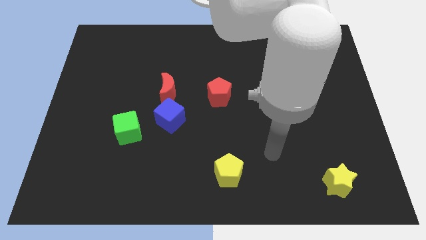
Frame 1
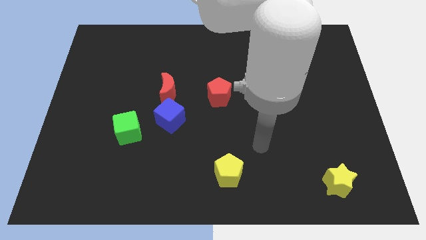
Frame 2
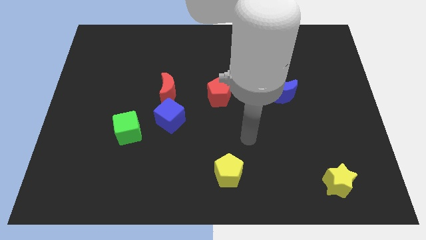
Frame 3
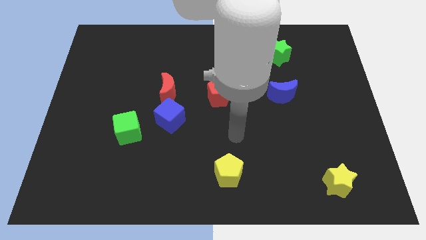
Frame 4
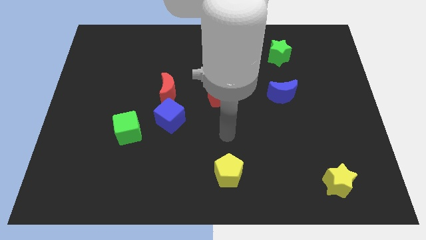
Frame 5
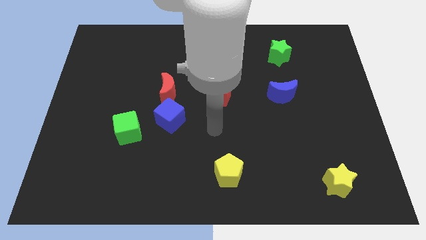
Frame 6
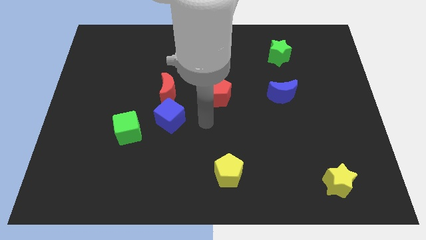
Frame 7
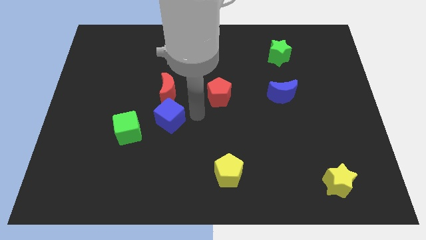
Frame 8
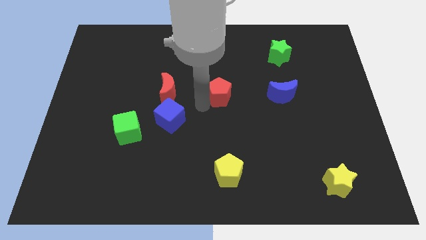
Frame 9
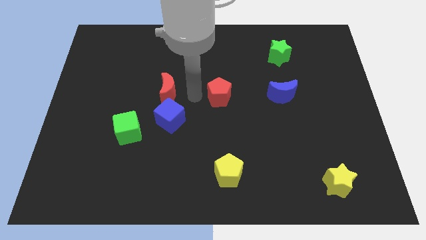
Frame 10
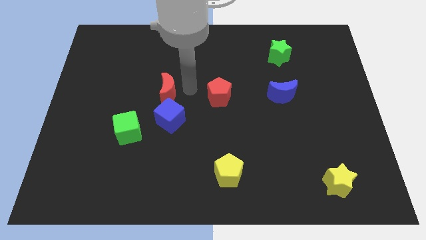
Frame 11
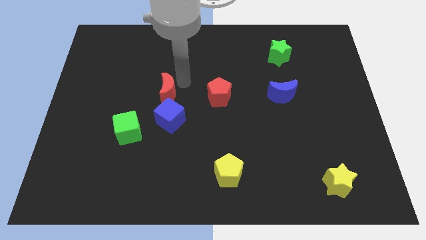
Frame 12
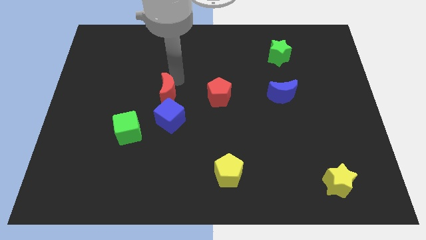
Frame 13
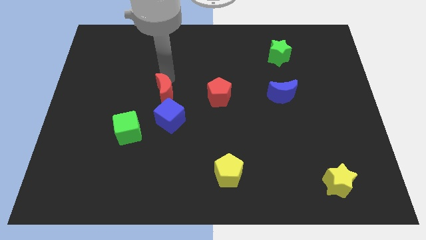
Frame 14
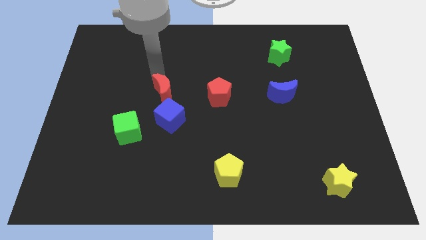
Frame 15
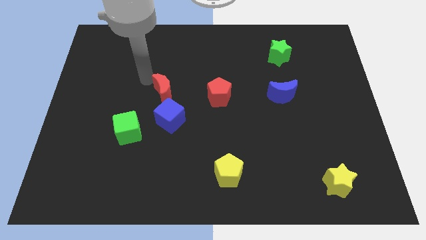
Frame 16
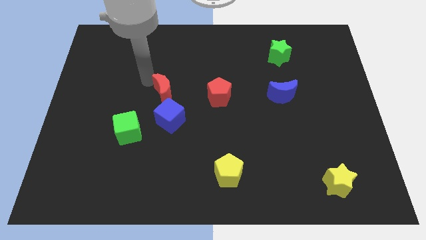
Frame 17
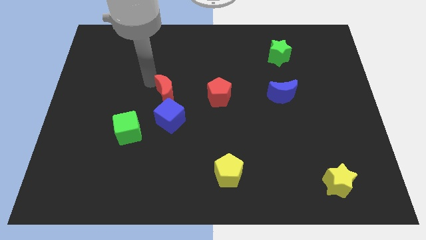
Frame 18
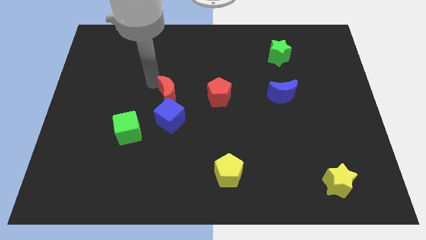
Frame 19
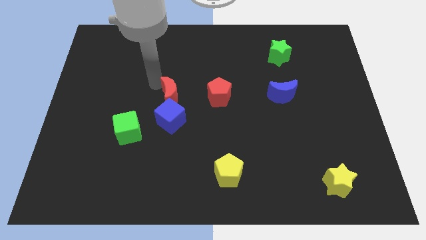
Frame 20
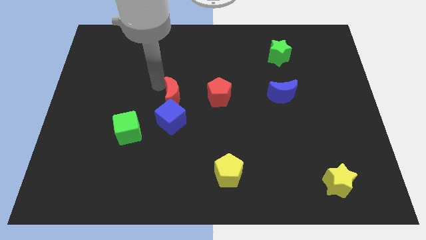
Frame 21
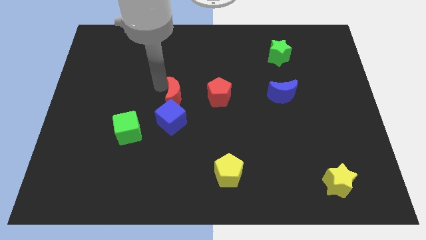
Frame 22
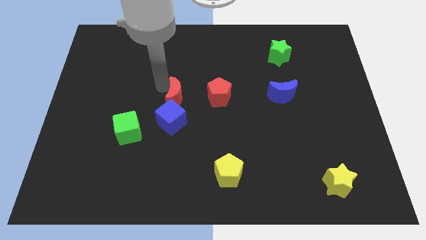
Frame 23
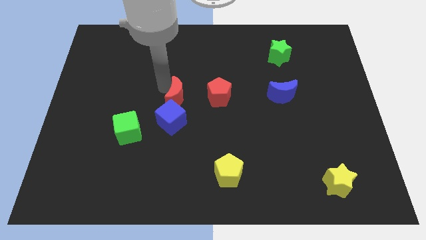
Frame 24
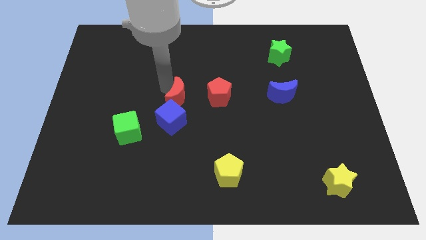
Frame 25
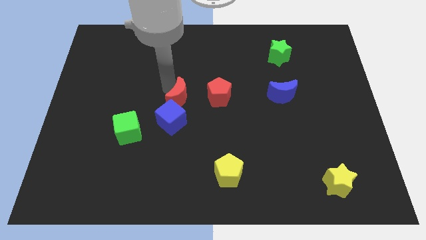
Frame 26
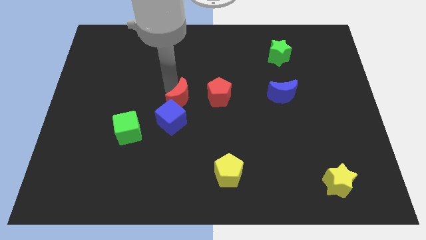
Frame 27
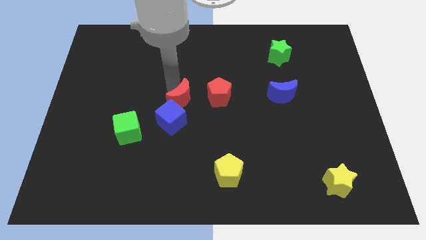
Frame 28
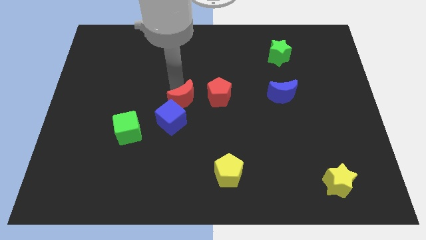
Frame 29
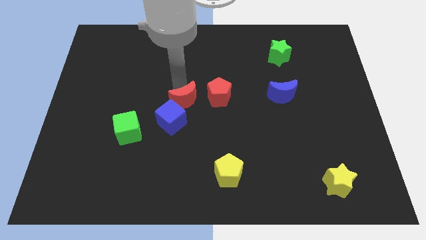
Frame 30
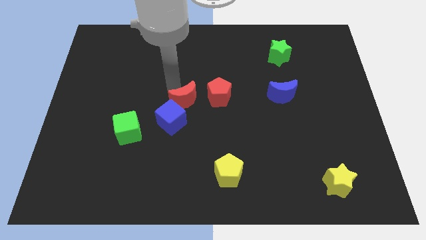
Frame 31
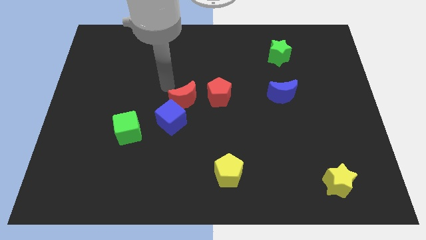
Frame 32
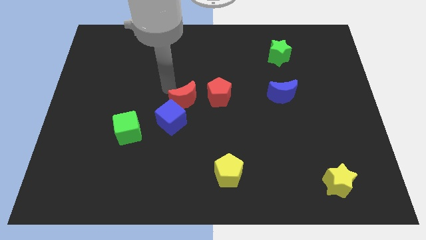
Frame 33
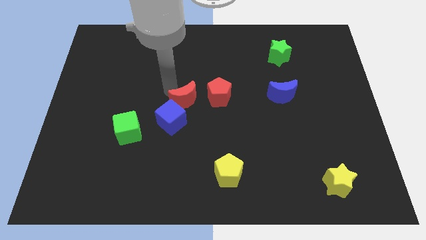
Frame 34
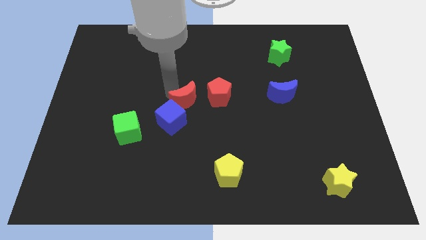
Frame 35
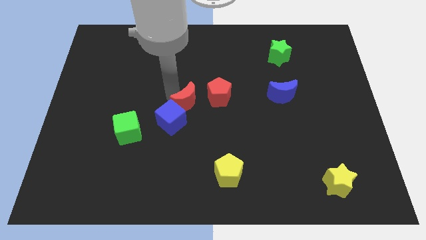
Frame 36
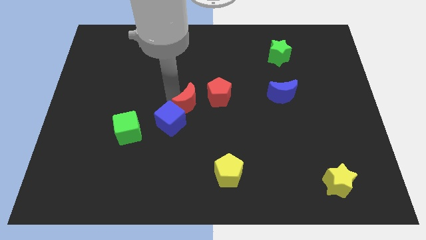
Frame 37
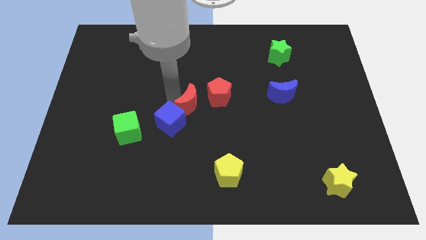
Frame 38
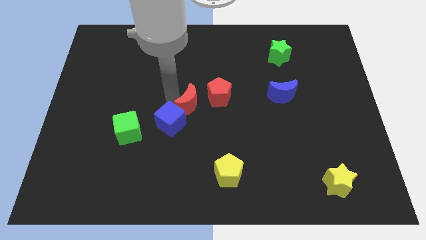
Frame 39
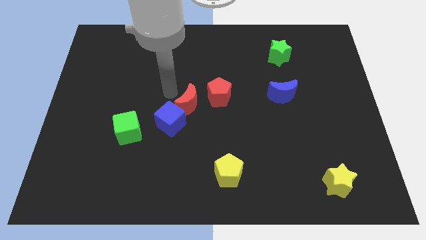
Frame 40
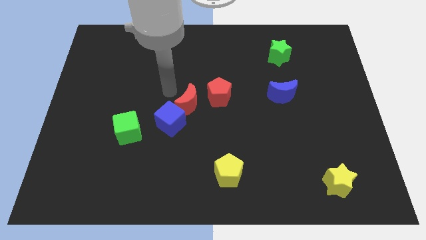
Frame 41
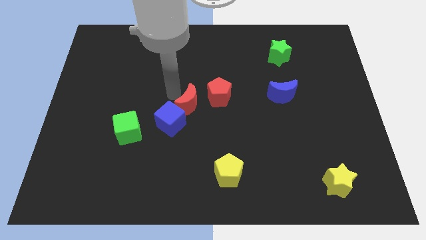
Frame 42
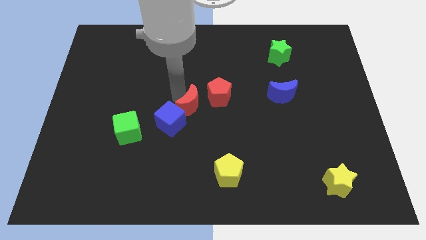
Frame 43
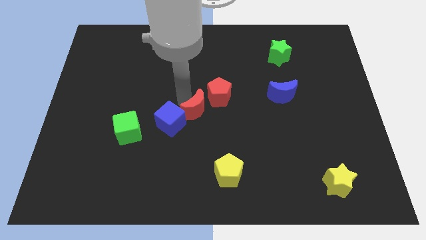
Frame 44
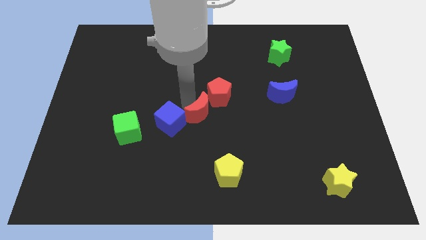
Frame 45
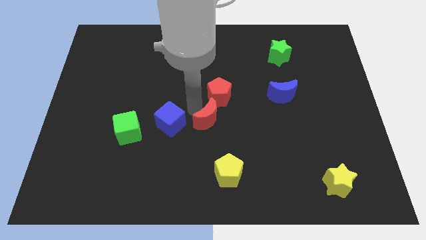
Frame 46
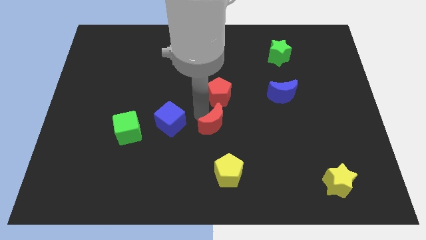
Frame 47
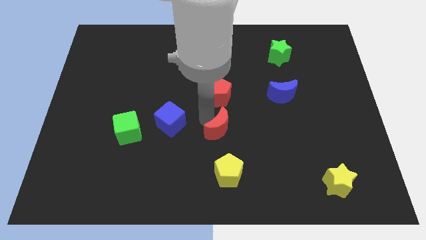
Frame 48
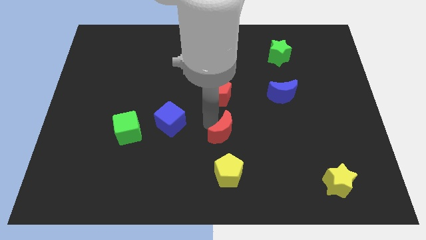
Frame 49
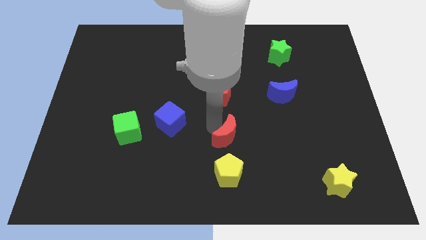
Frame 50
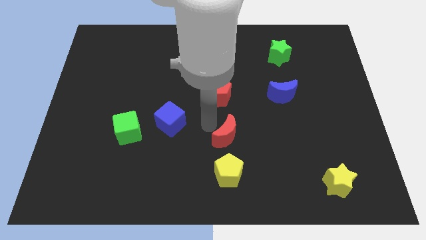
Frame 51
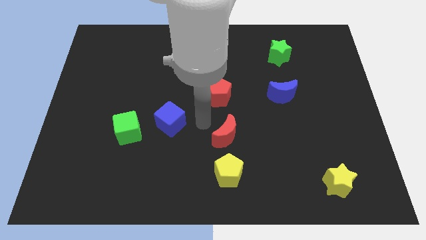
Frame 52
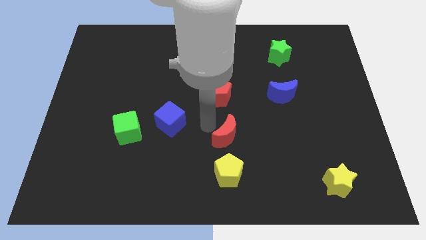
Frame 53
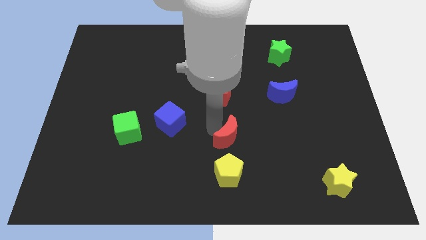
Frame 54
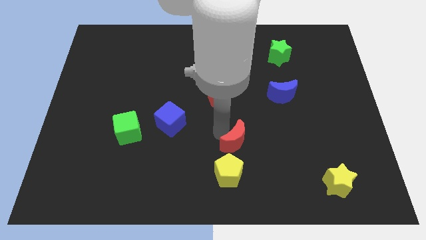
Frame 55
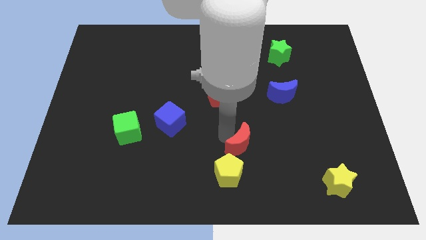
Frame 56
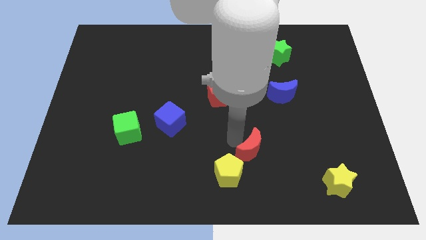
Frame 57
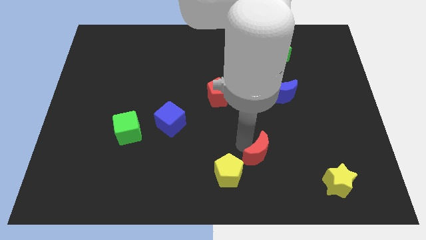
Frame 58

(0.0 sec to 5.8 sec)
slide the red moon right of the yellow pentagon

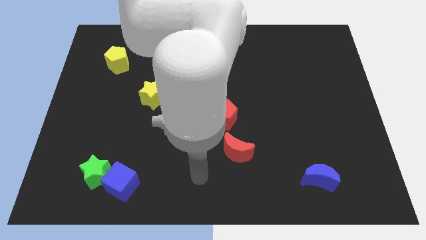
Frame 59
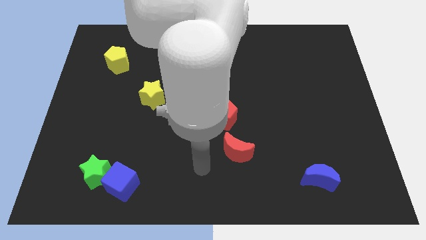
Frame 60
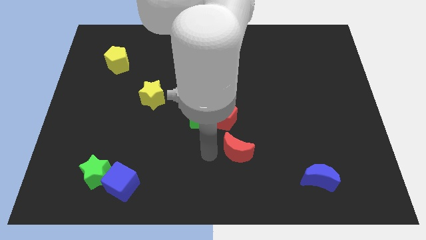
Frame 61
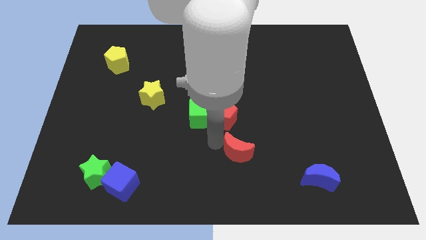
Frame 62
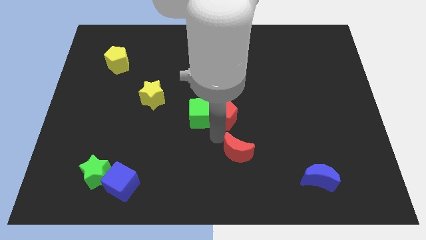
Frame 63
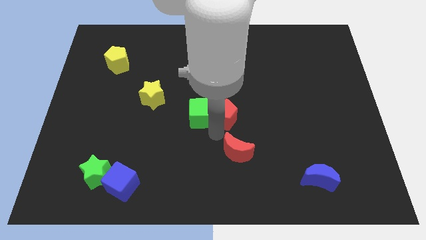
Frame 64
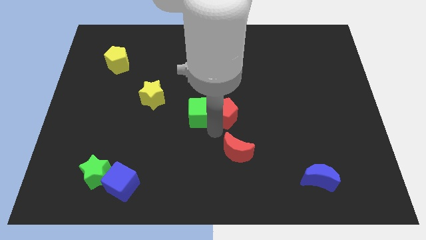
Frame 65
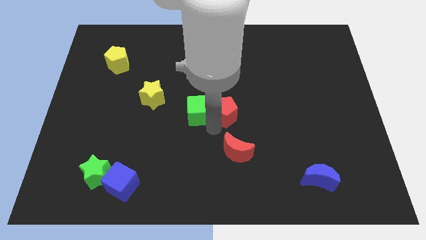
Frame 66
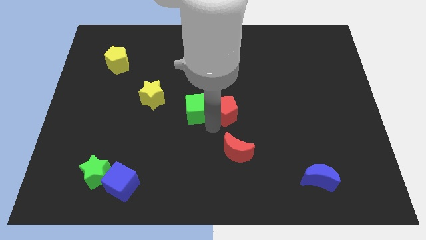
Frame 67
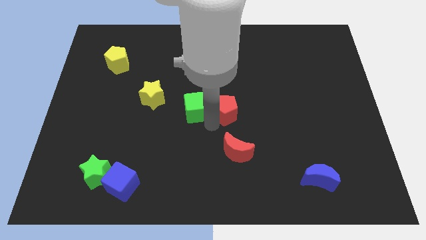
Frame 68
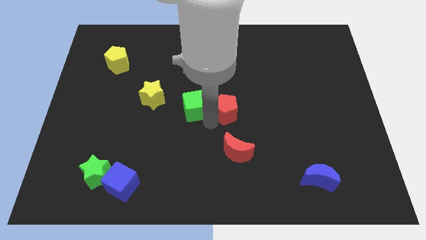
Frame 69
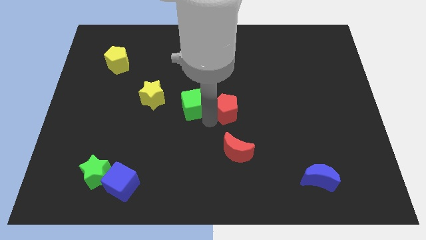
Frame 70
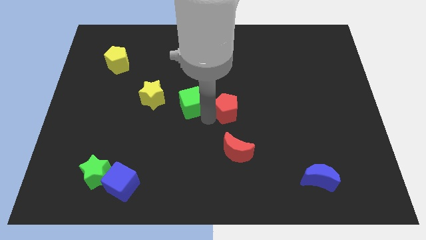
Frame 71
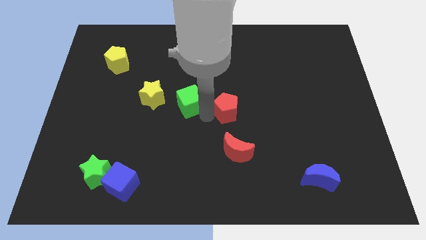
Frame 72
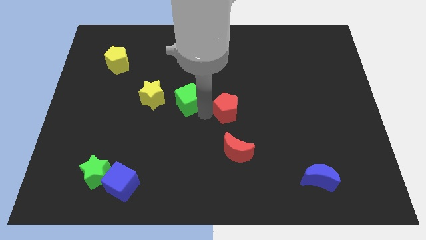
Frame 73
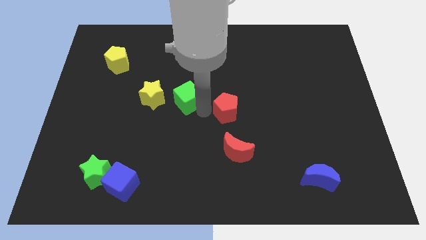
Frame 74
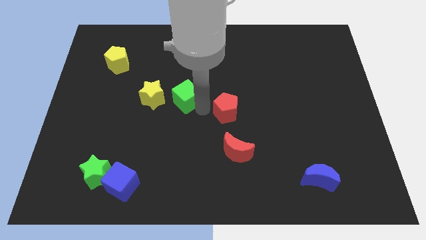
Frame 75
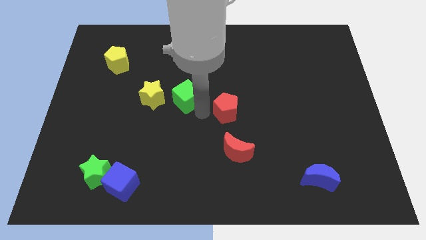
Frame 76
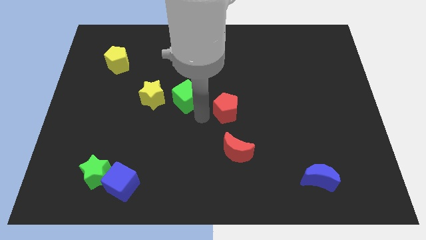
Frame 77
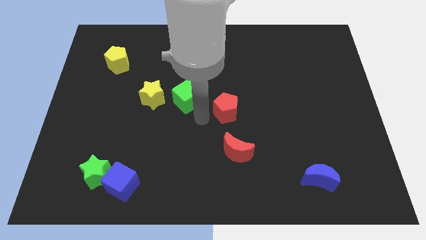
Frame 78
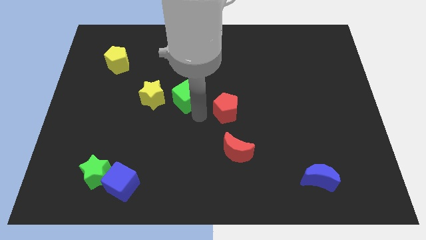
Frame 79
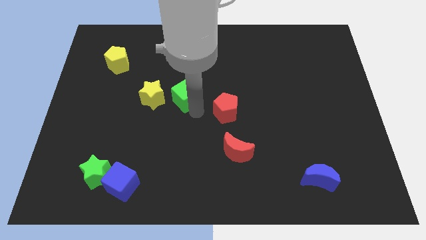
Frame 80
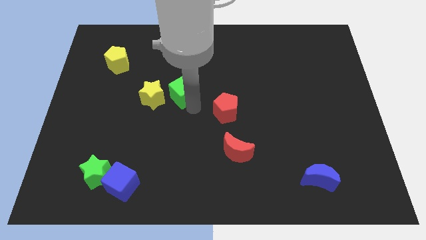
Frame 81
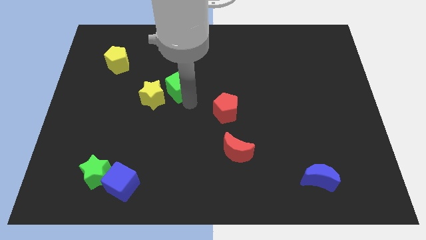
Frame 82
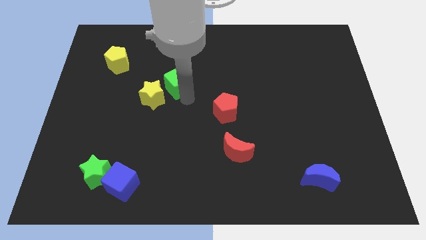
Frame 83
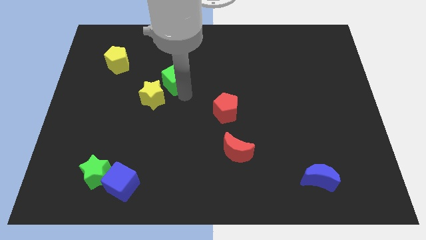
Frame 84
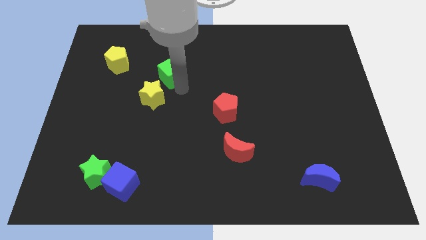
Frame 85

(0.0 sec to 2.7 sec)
slide the green cube to the top side of the yellow star
